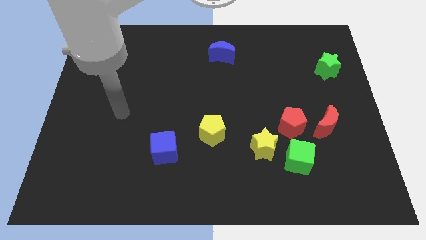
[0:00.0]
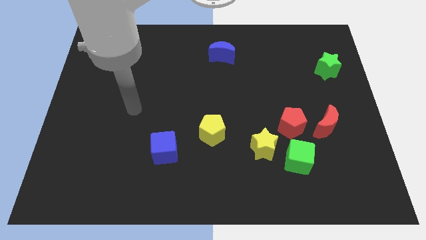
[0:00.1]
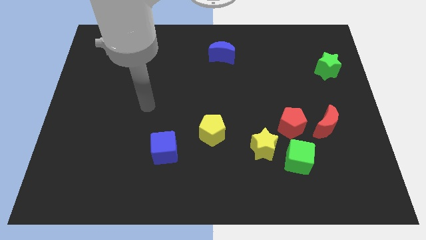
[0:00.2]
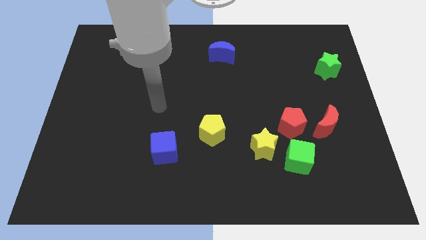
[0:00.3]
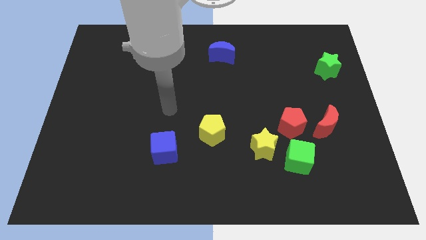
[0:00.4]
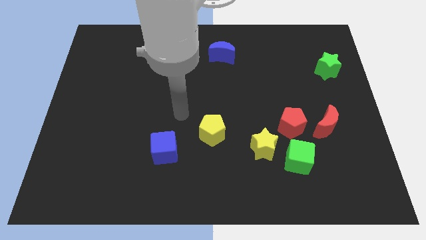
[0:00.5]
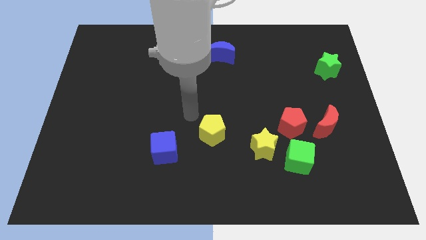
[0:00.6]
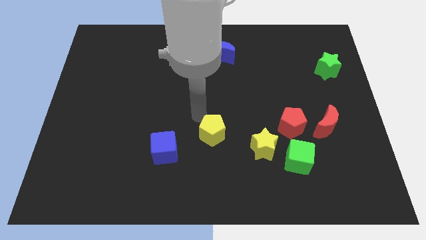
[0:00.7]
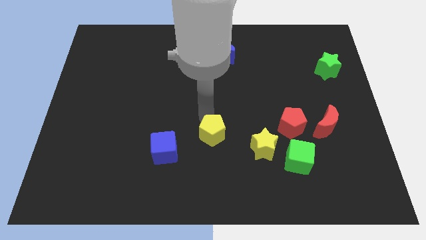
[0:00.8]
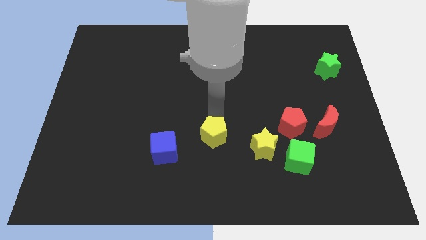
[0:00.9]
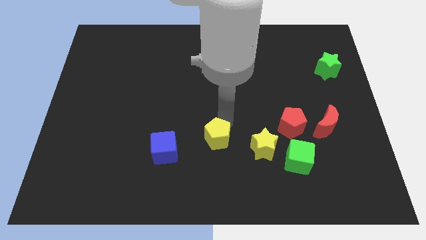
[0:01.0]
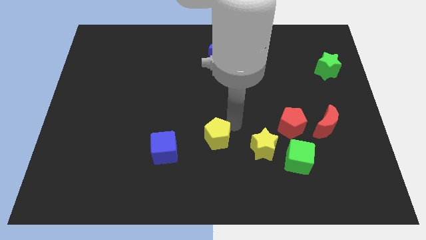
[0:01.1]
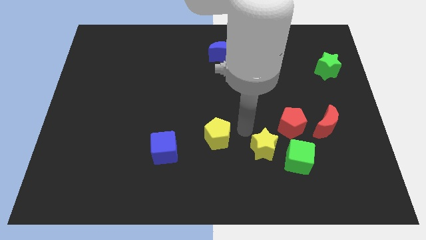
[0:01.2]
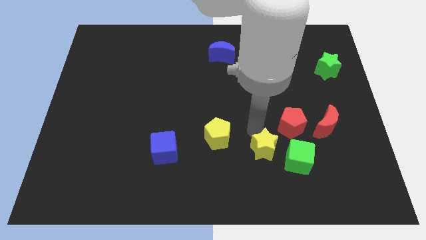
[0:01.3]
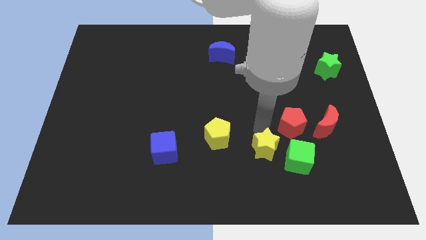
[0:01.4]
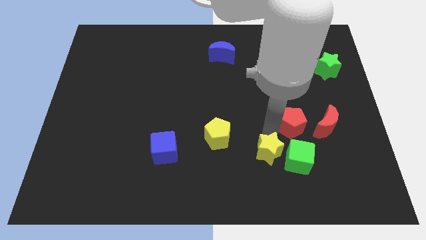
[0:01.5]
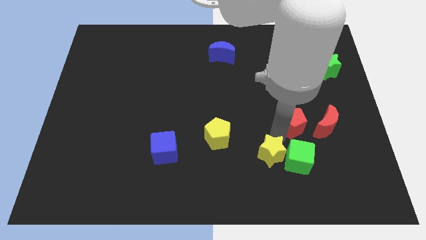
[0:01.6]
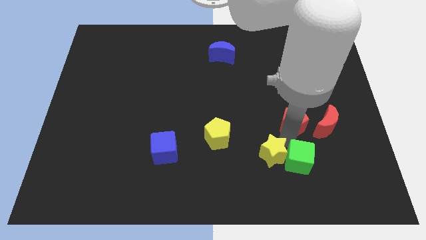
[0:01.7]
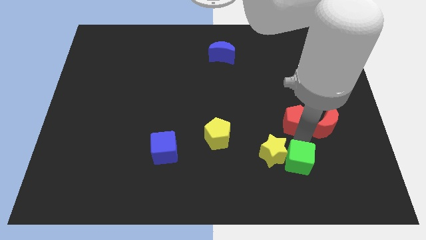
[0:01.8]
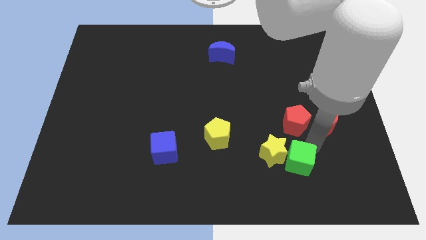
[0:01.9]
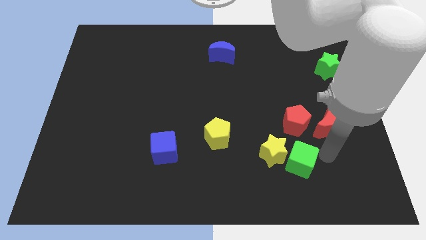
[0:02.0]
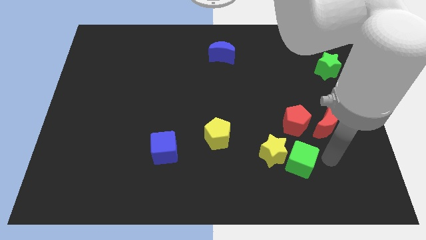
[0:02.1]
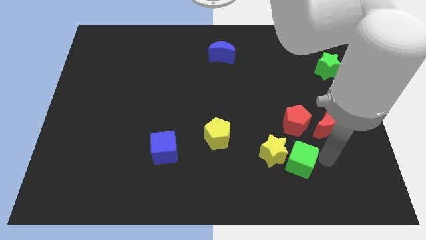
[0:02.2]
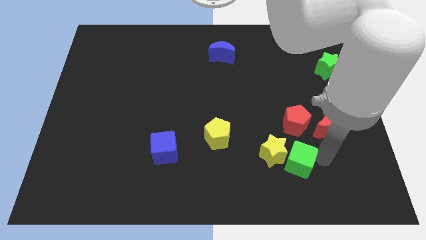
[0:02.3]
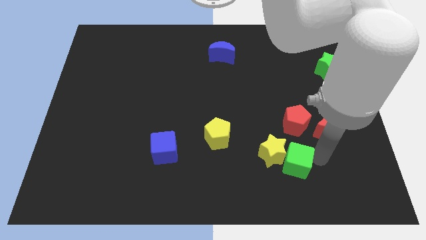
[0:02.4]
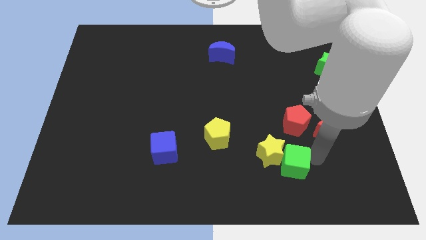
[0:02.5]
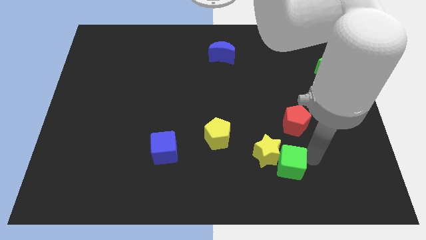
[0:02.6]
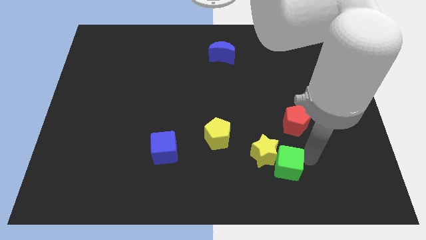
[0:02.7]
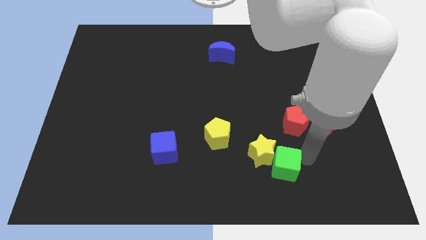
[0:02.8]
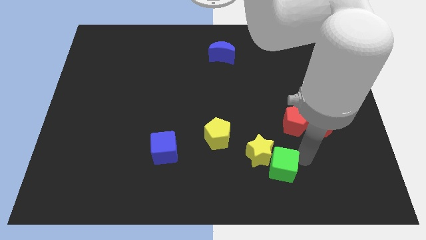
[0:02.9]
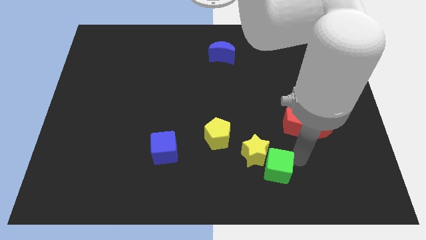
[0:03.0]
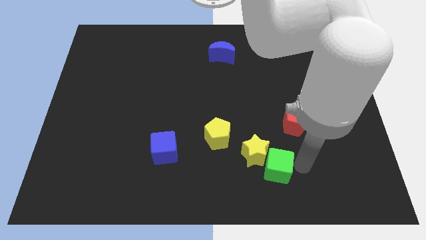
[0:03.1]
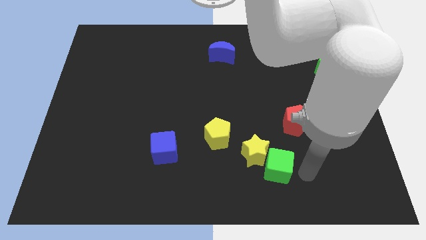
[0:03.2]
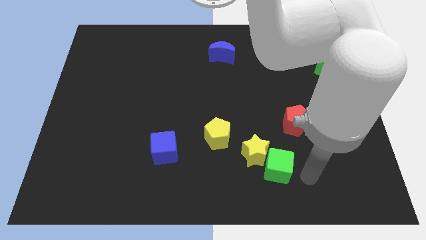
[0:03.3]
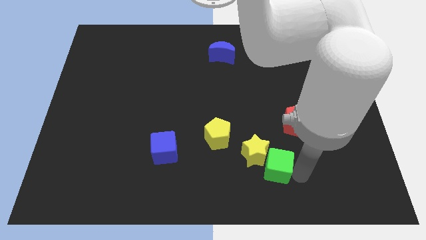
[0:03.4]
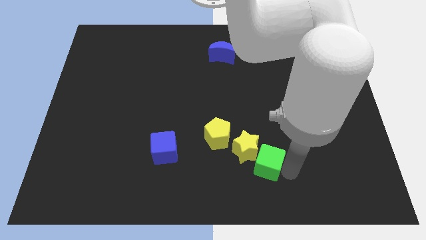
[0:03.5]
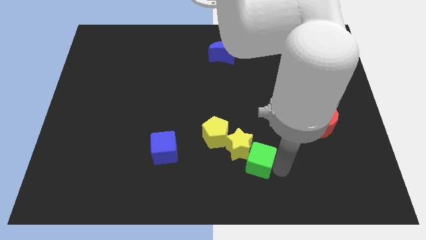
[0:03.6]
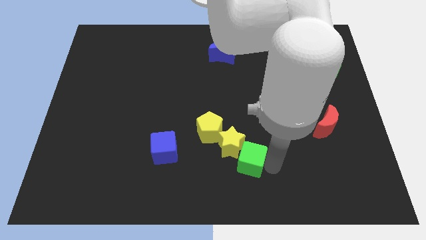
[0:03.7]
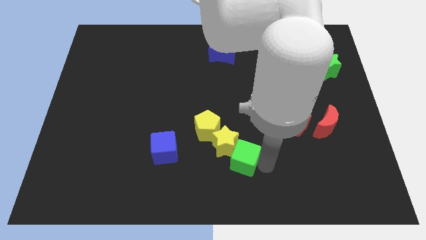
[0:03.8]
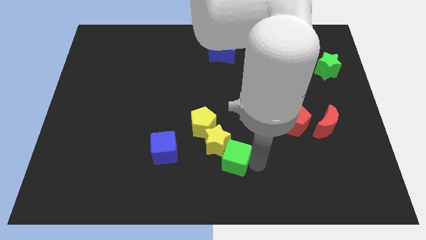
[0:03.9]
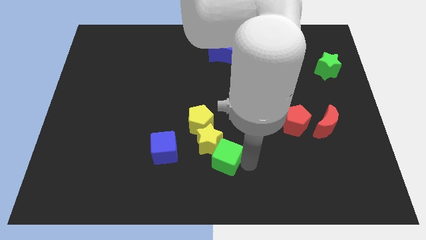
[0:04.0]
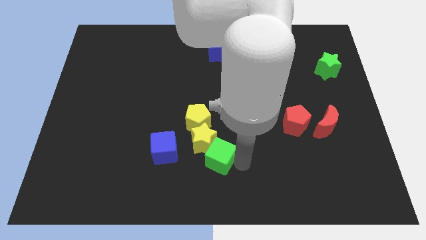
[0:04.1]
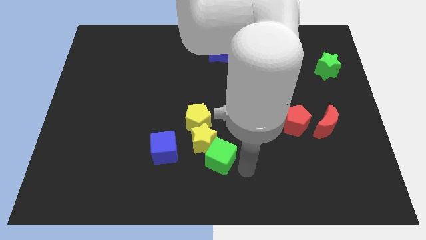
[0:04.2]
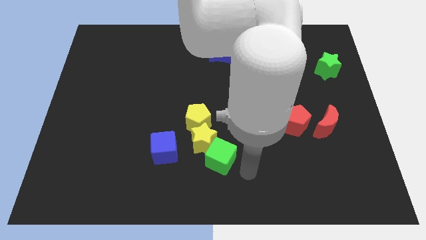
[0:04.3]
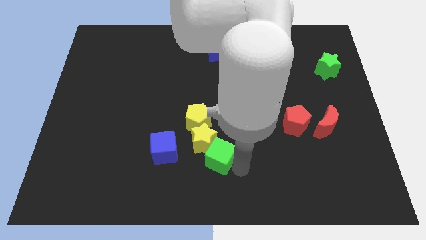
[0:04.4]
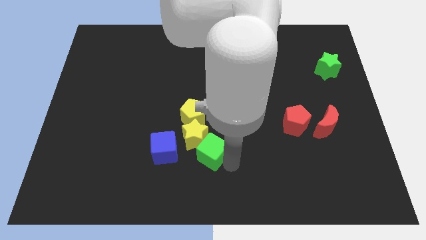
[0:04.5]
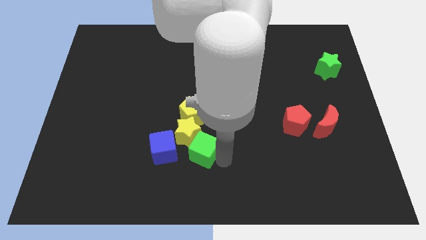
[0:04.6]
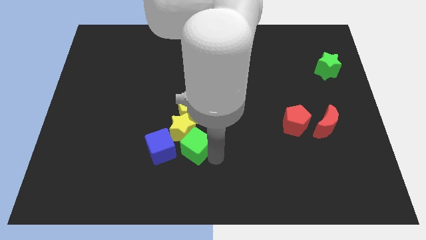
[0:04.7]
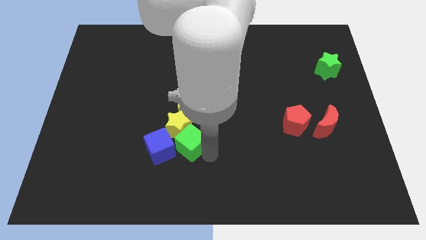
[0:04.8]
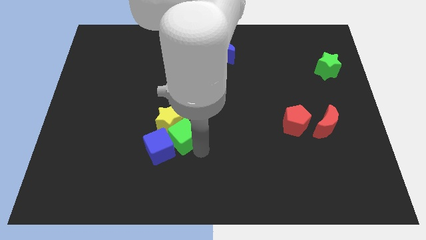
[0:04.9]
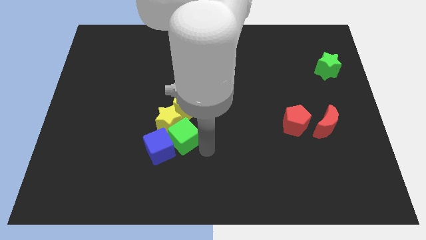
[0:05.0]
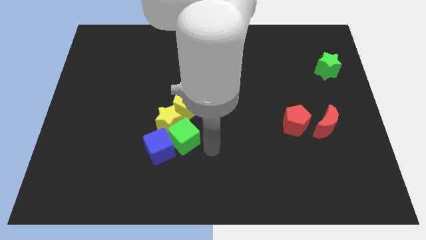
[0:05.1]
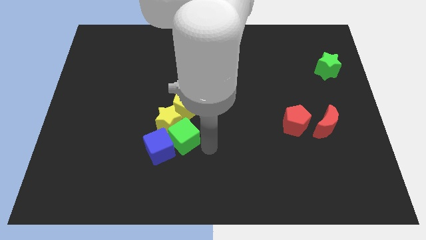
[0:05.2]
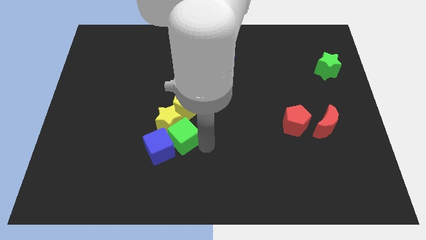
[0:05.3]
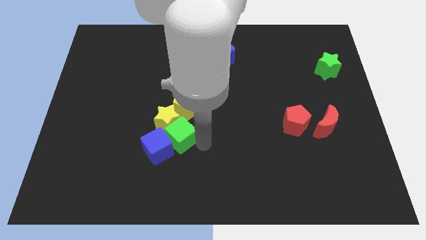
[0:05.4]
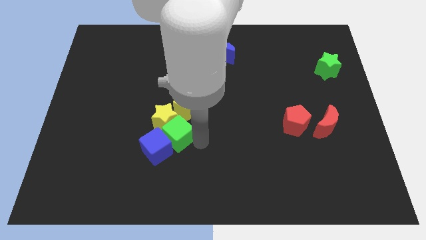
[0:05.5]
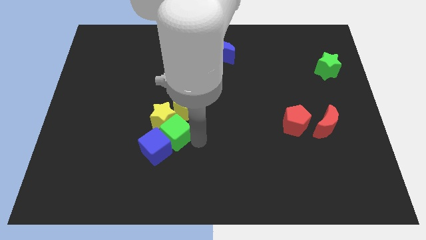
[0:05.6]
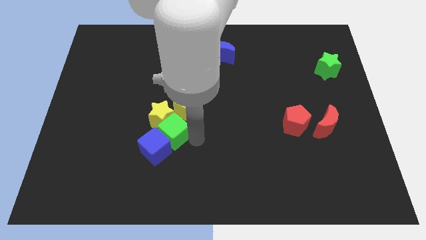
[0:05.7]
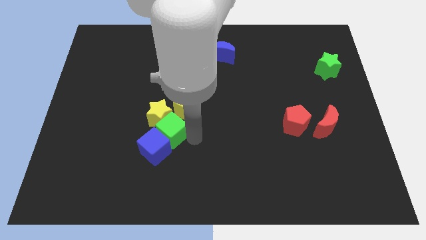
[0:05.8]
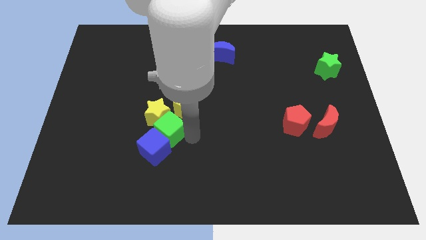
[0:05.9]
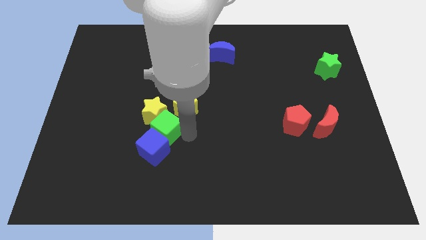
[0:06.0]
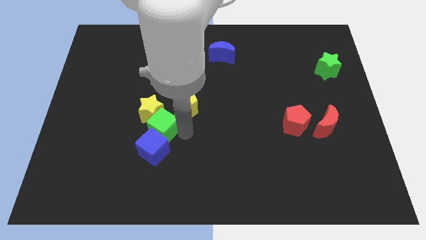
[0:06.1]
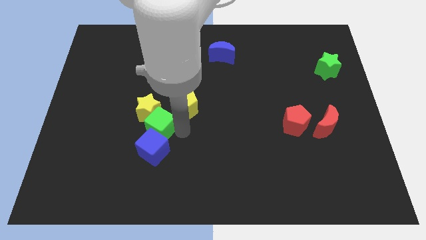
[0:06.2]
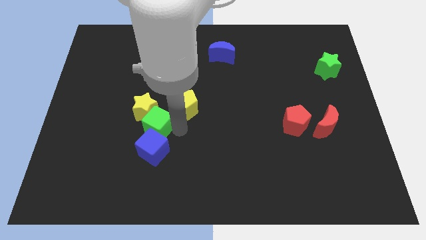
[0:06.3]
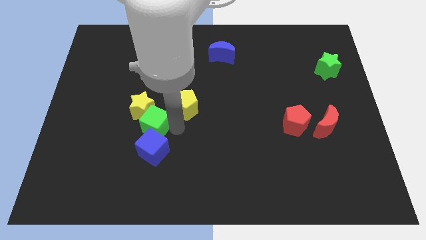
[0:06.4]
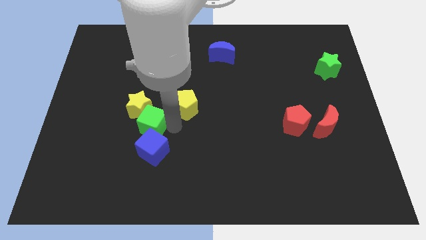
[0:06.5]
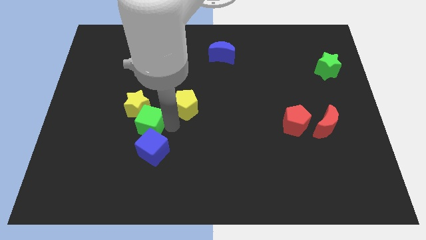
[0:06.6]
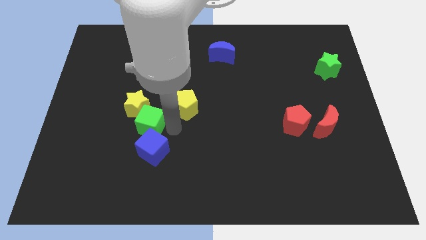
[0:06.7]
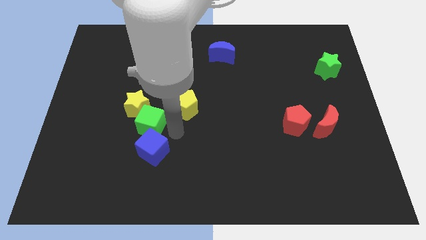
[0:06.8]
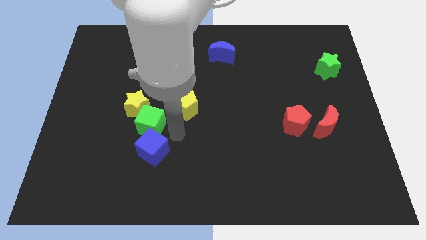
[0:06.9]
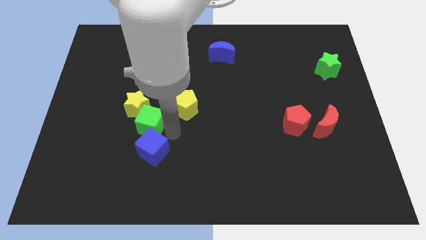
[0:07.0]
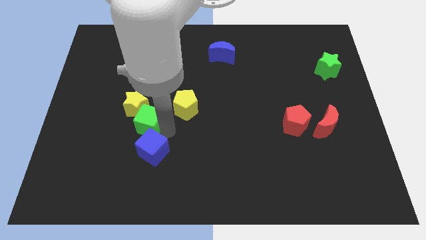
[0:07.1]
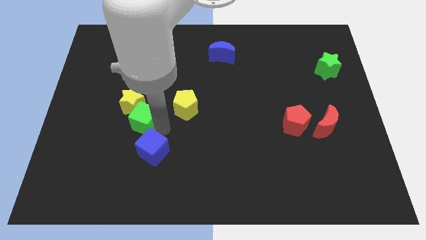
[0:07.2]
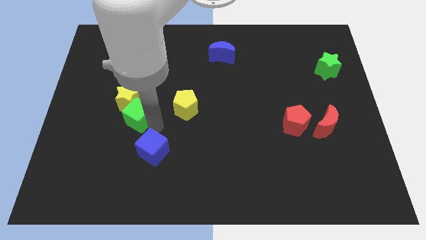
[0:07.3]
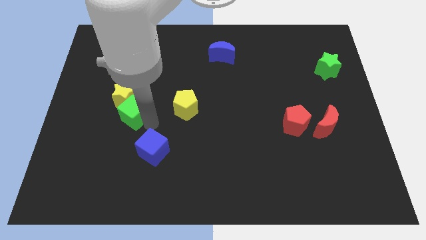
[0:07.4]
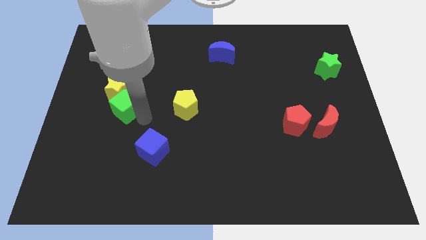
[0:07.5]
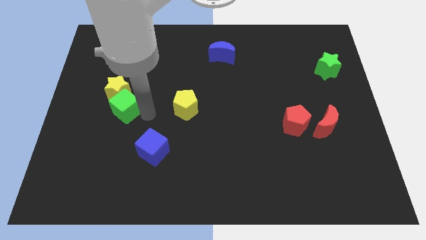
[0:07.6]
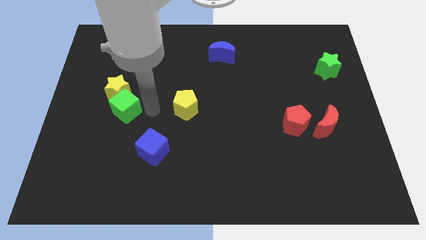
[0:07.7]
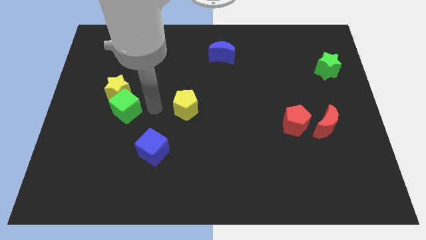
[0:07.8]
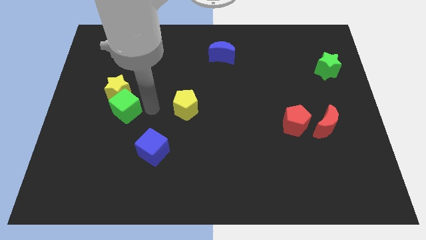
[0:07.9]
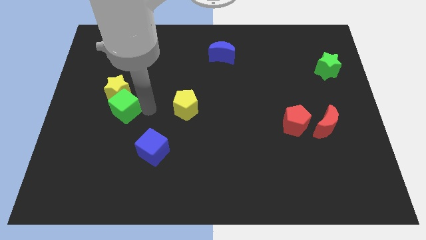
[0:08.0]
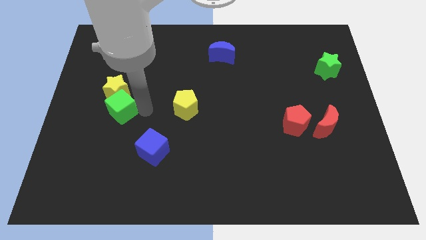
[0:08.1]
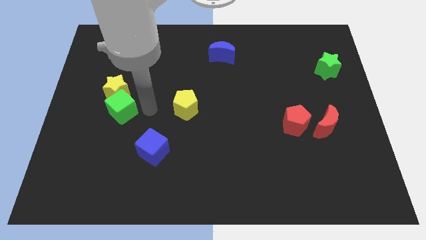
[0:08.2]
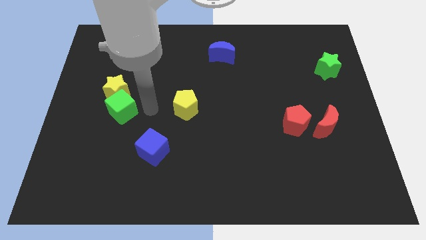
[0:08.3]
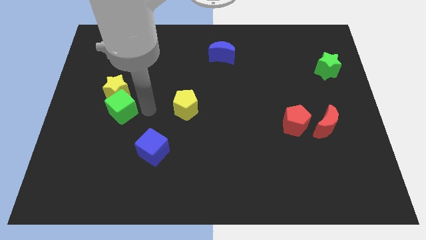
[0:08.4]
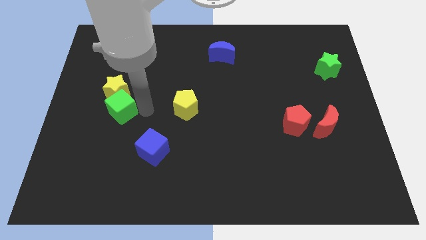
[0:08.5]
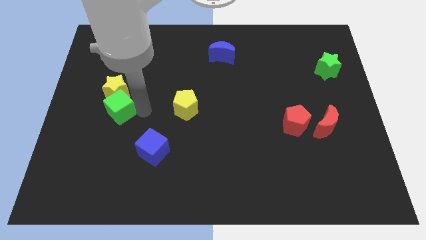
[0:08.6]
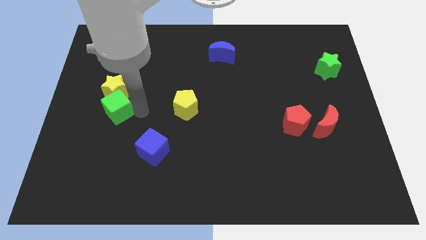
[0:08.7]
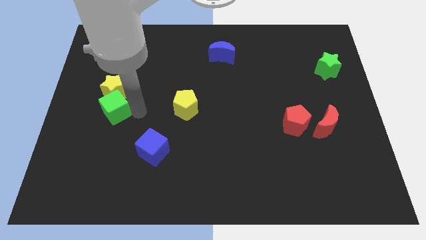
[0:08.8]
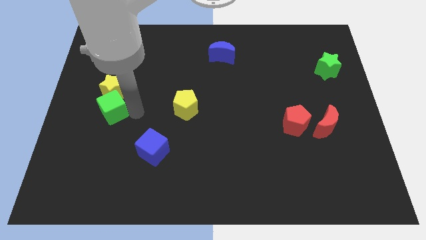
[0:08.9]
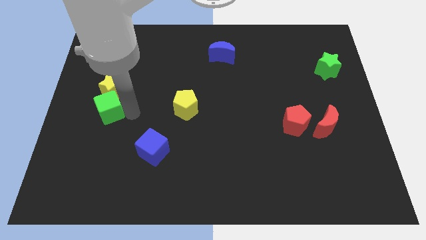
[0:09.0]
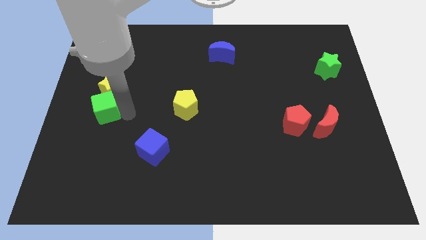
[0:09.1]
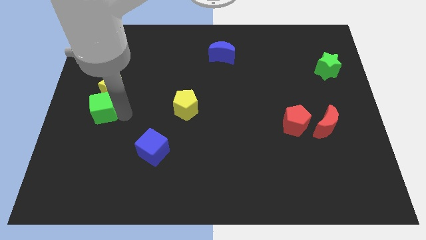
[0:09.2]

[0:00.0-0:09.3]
move the green cube to the left side
